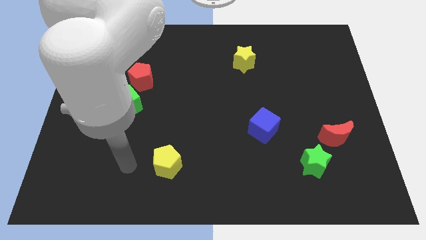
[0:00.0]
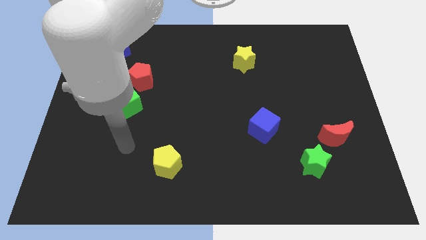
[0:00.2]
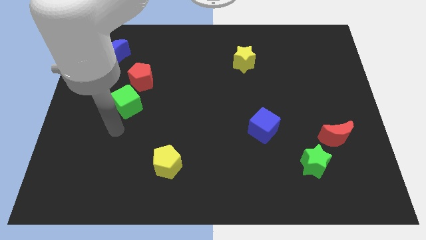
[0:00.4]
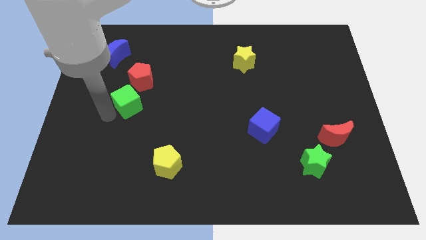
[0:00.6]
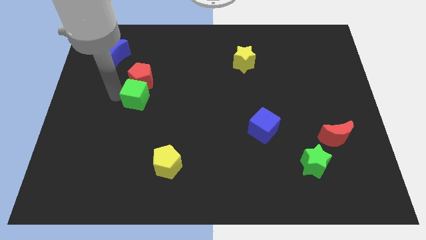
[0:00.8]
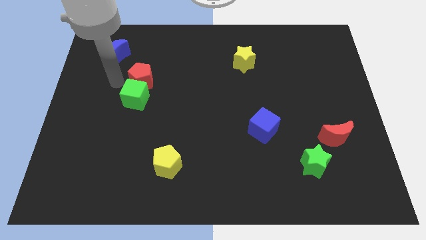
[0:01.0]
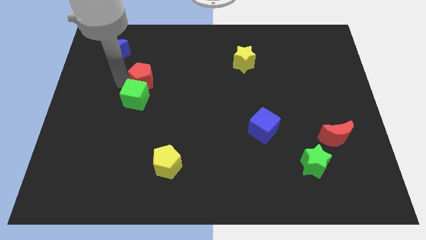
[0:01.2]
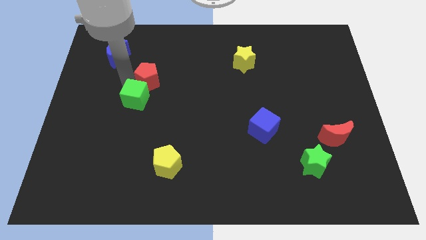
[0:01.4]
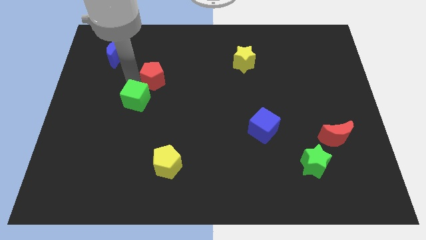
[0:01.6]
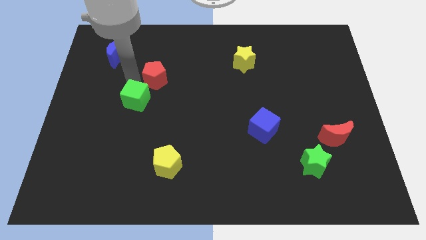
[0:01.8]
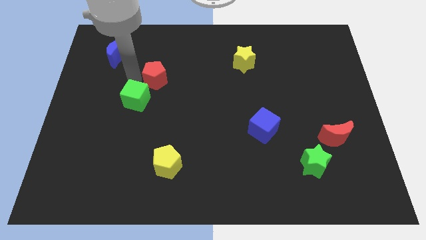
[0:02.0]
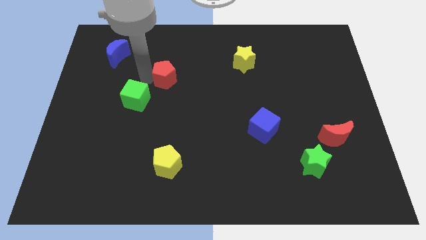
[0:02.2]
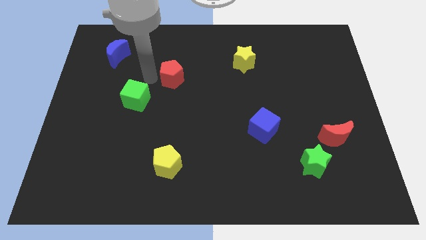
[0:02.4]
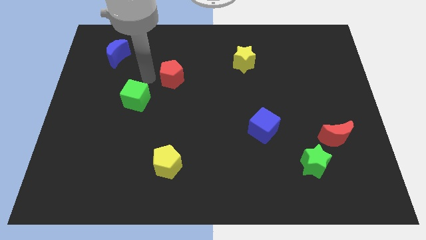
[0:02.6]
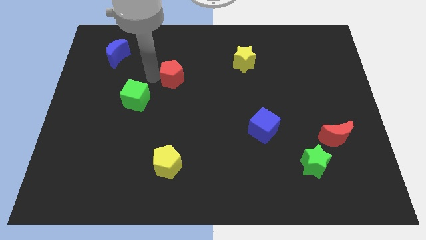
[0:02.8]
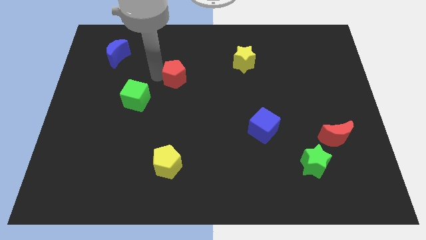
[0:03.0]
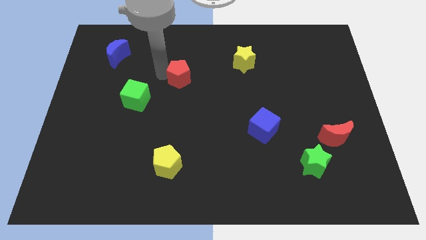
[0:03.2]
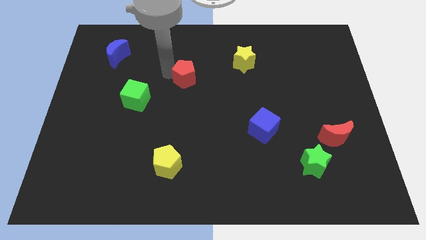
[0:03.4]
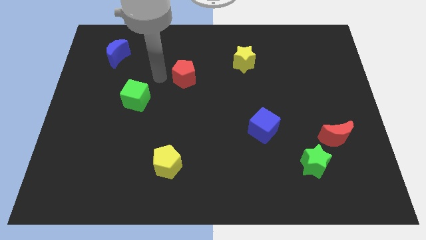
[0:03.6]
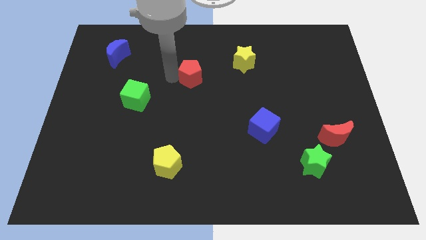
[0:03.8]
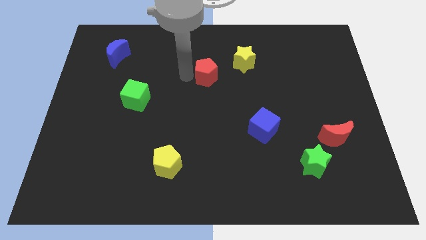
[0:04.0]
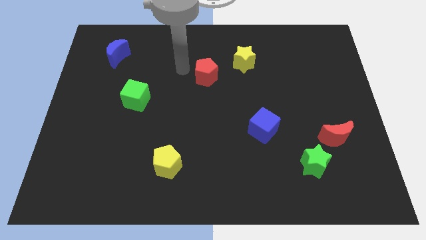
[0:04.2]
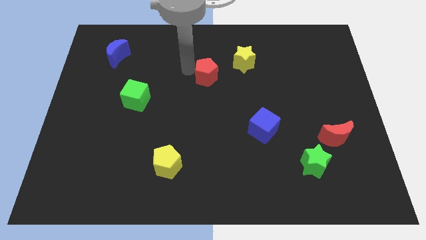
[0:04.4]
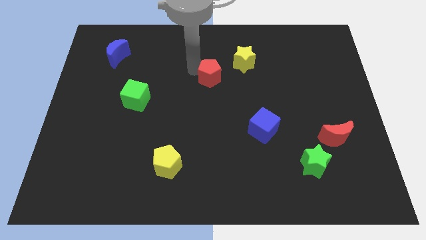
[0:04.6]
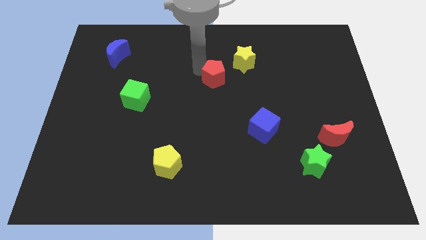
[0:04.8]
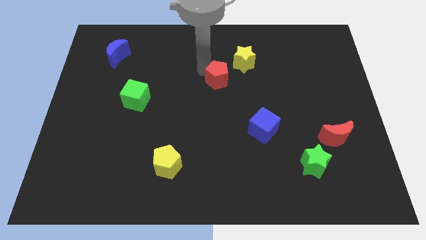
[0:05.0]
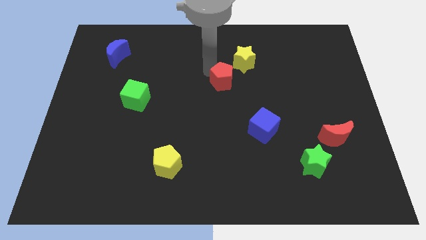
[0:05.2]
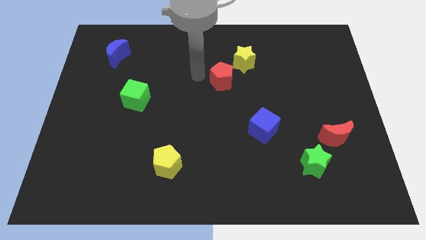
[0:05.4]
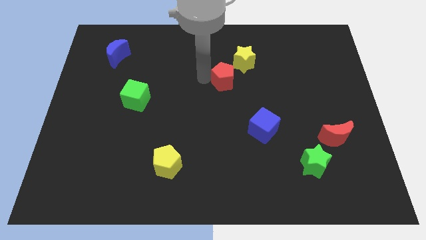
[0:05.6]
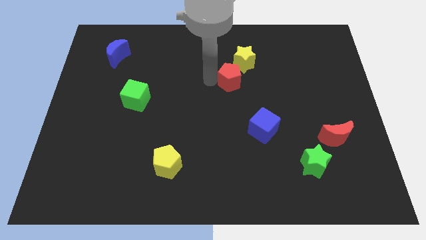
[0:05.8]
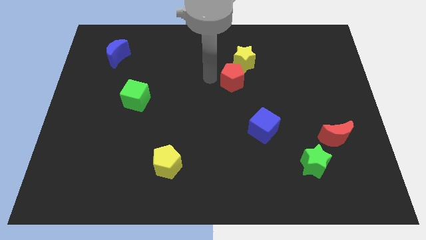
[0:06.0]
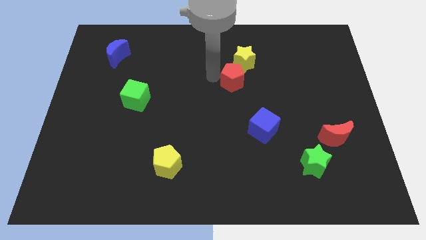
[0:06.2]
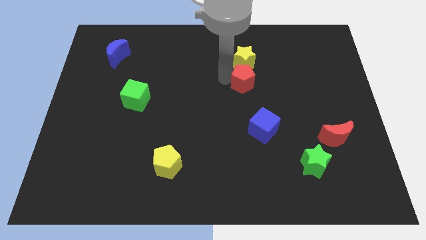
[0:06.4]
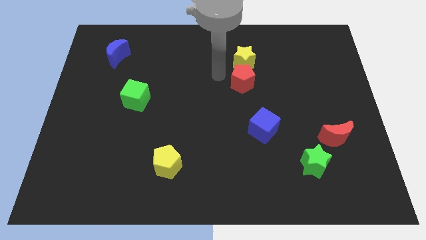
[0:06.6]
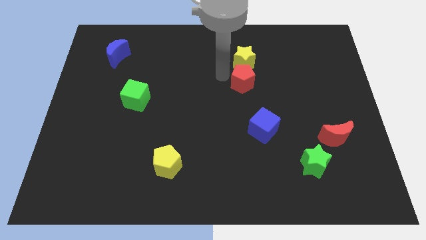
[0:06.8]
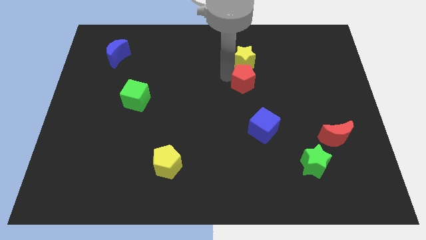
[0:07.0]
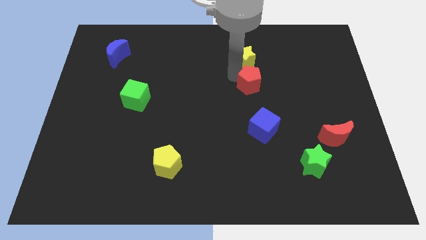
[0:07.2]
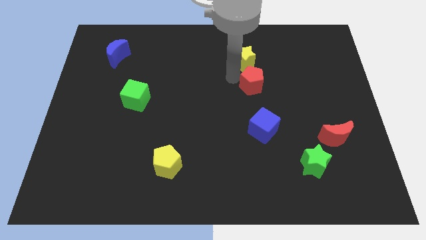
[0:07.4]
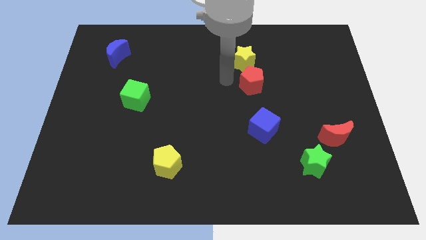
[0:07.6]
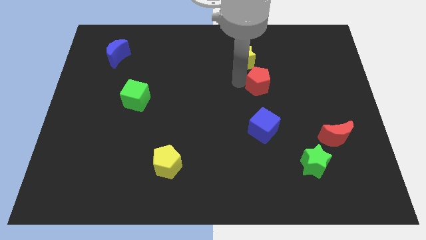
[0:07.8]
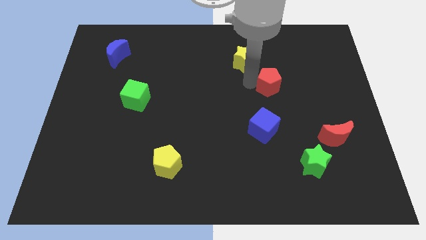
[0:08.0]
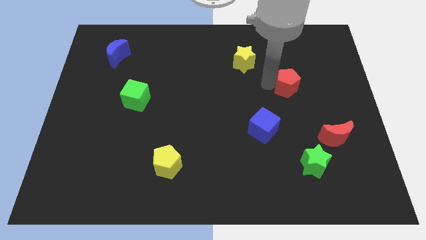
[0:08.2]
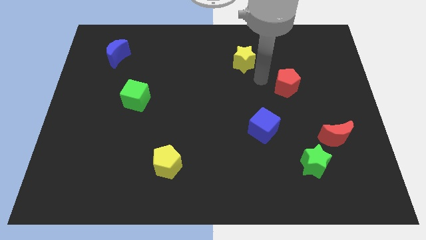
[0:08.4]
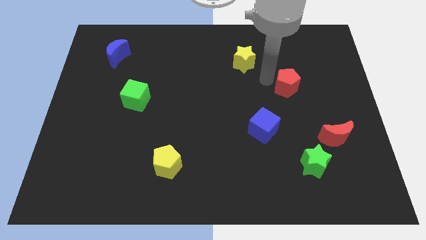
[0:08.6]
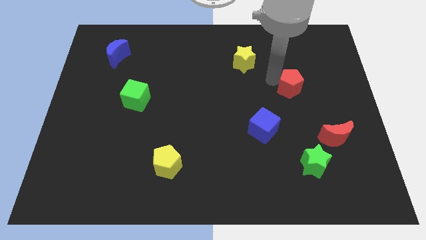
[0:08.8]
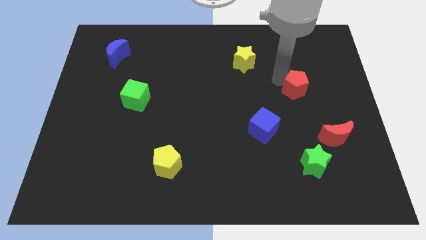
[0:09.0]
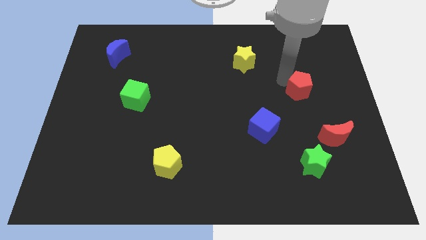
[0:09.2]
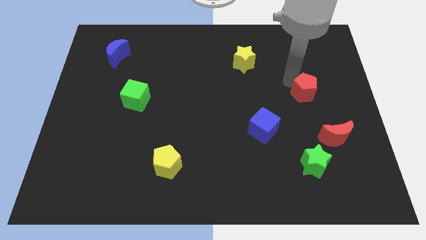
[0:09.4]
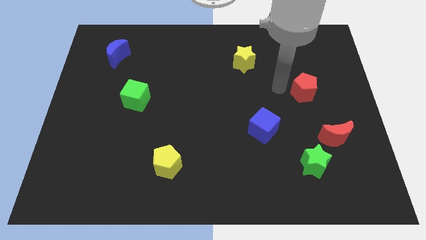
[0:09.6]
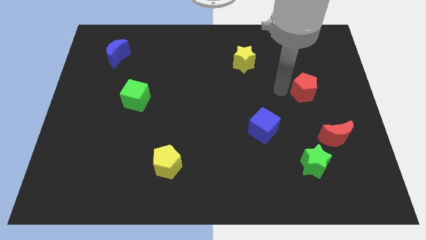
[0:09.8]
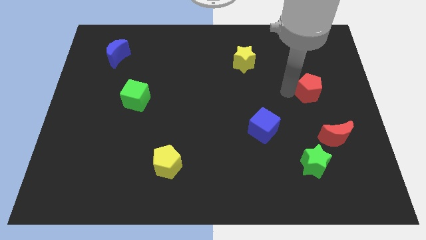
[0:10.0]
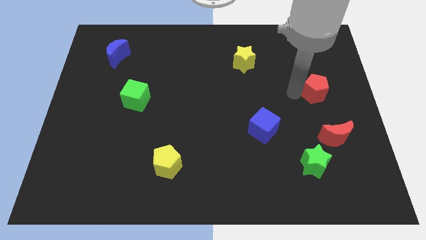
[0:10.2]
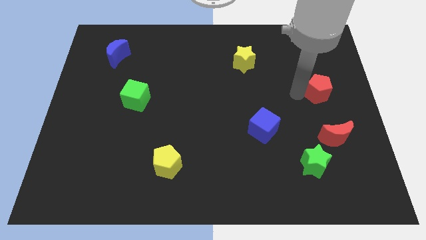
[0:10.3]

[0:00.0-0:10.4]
push the red pentagon to the right side of the board

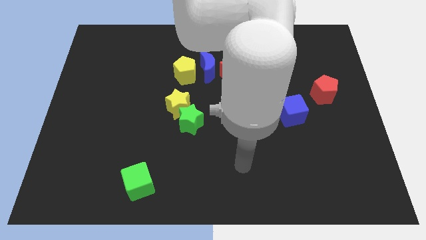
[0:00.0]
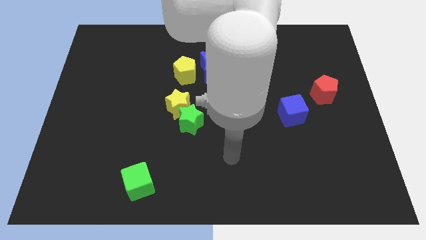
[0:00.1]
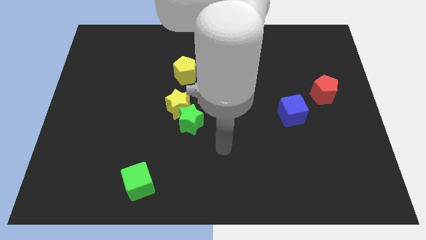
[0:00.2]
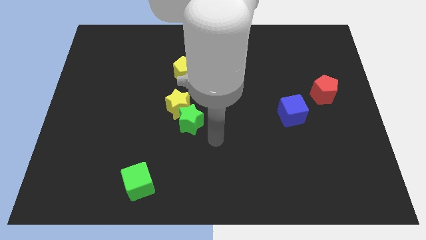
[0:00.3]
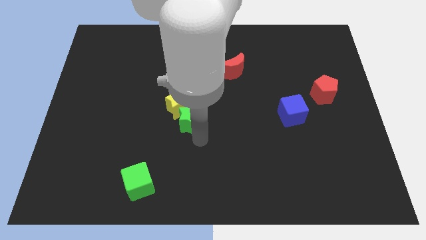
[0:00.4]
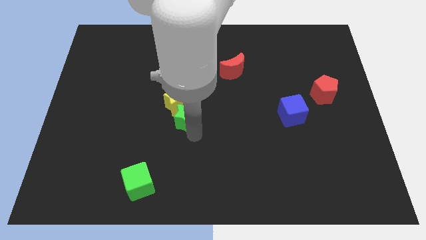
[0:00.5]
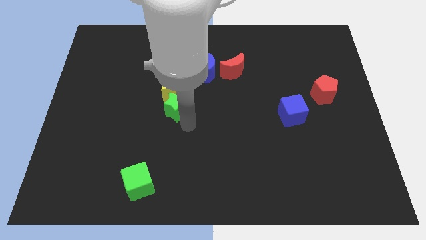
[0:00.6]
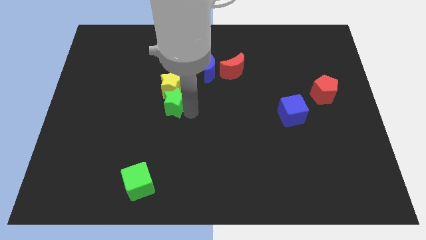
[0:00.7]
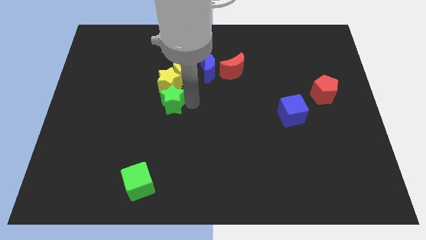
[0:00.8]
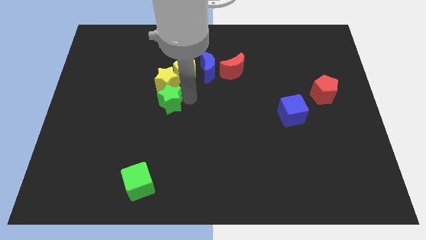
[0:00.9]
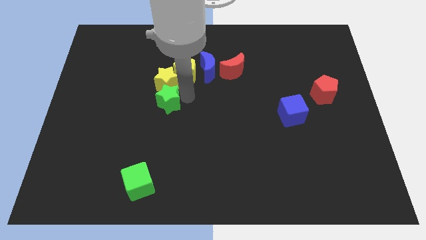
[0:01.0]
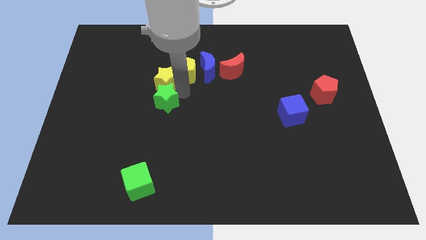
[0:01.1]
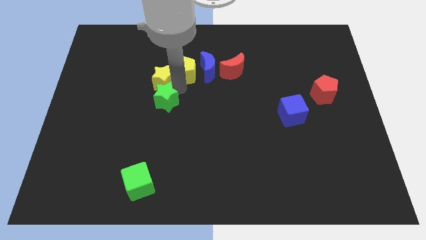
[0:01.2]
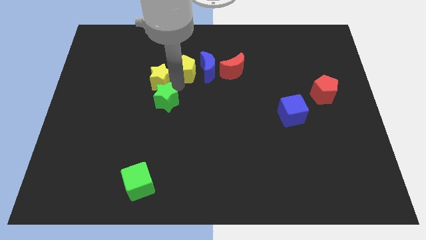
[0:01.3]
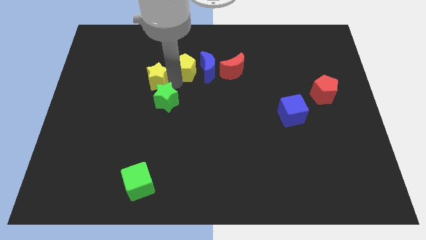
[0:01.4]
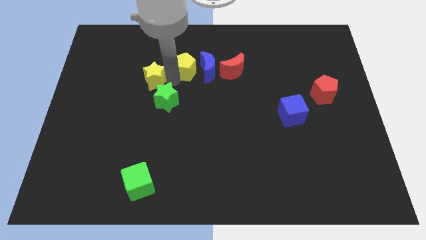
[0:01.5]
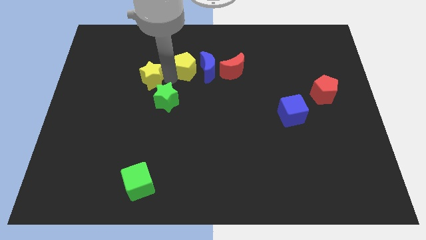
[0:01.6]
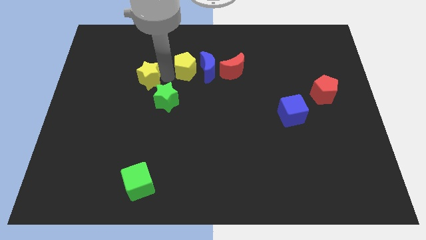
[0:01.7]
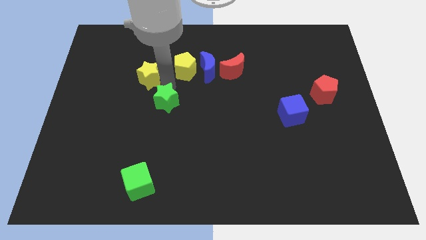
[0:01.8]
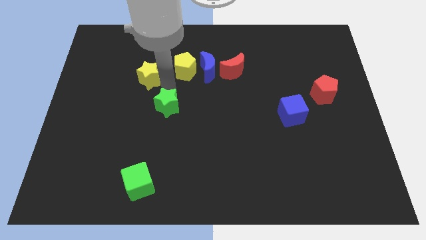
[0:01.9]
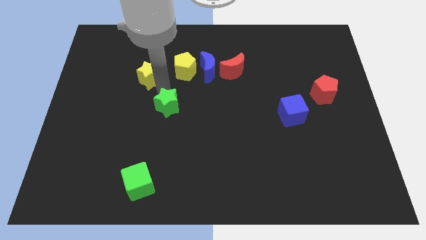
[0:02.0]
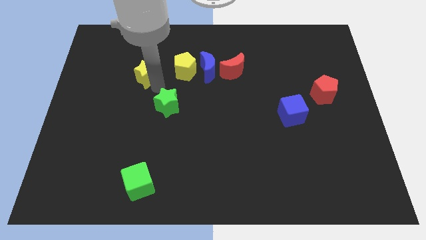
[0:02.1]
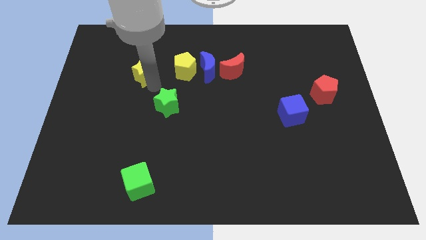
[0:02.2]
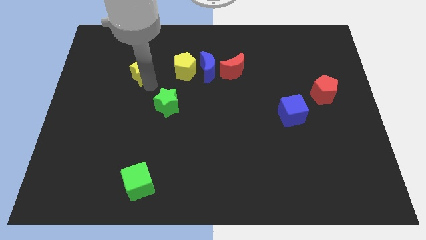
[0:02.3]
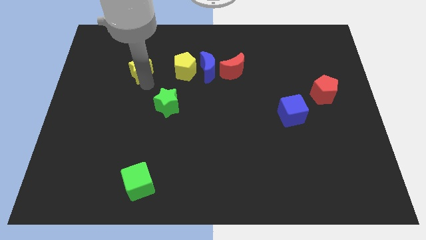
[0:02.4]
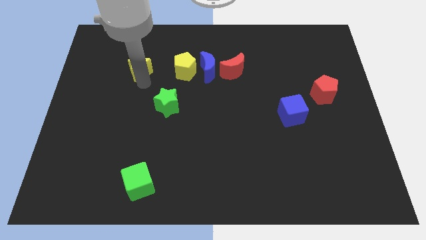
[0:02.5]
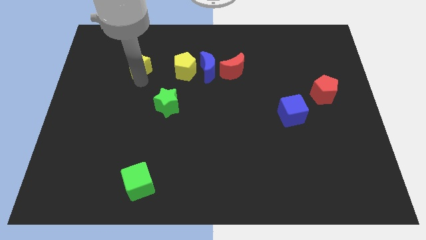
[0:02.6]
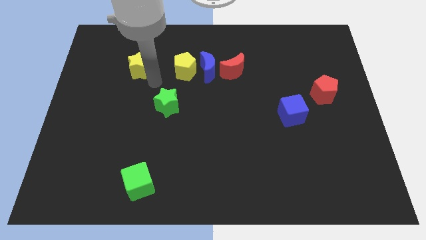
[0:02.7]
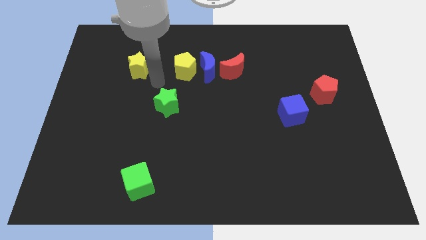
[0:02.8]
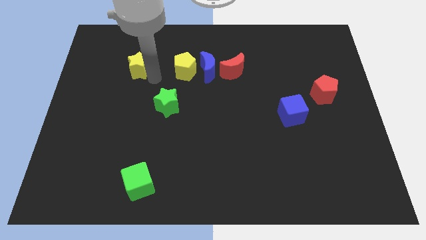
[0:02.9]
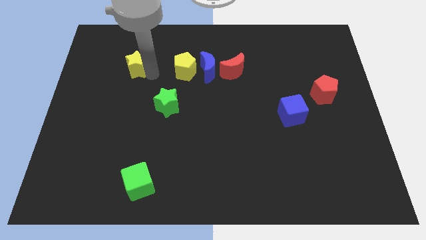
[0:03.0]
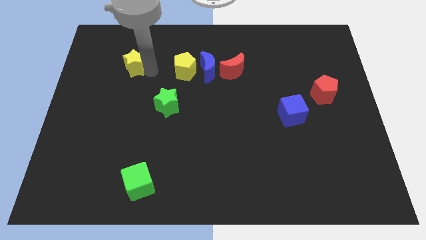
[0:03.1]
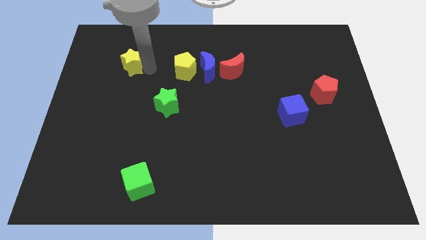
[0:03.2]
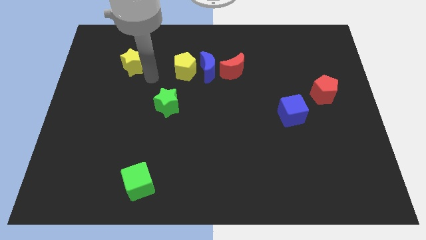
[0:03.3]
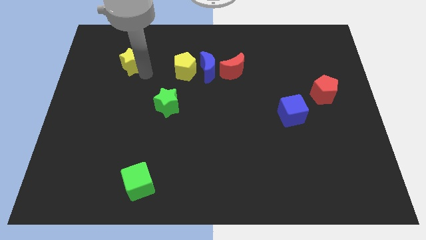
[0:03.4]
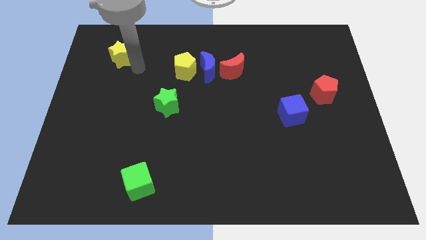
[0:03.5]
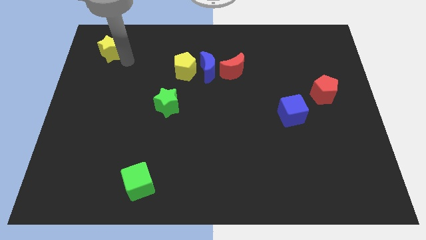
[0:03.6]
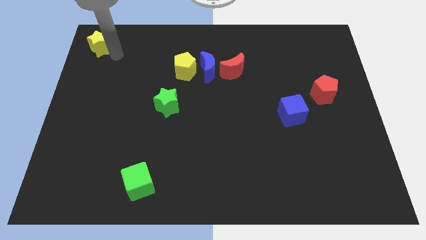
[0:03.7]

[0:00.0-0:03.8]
move the yellow star to the upper left corner
